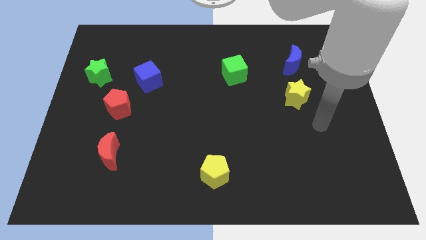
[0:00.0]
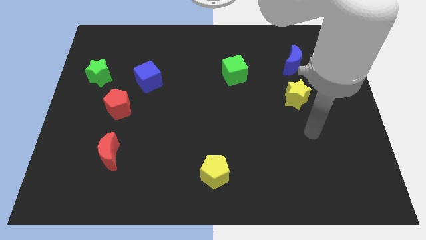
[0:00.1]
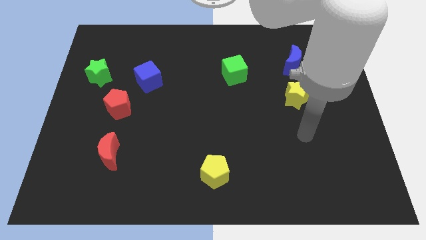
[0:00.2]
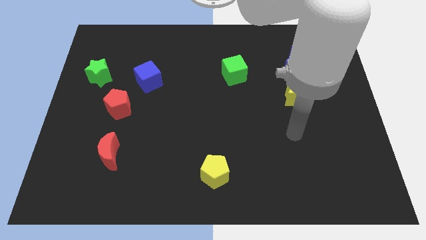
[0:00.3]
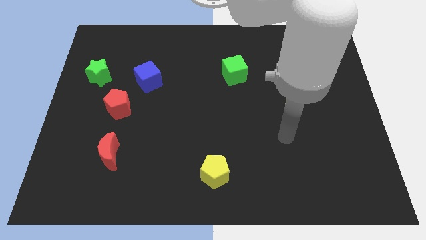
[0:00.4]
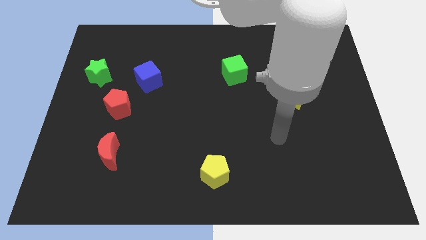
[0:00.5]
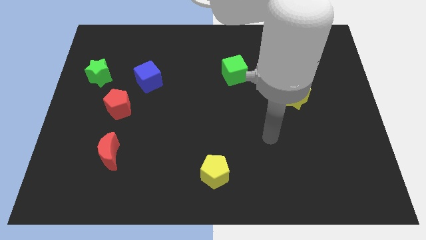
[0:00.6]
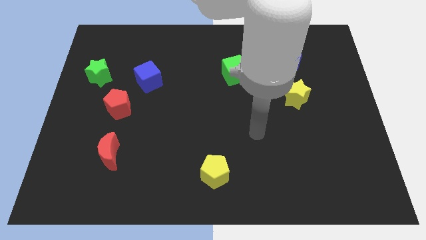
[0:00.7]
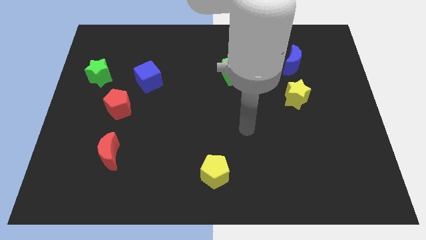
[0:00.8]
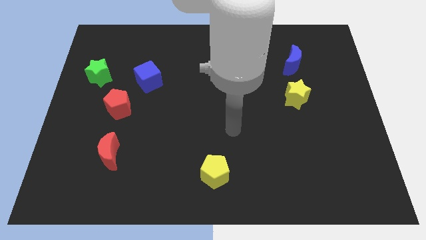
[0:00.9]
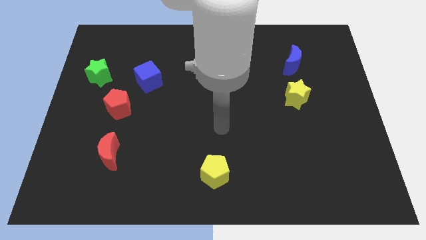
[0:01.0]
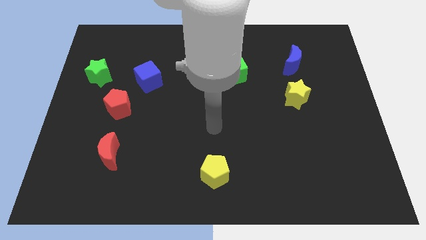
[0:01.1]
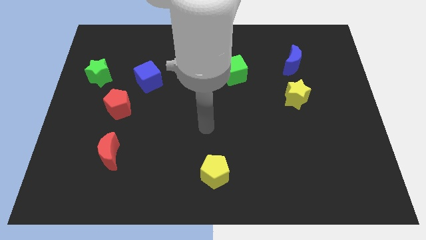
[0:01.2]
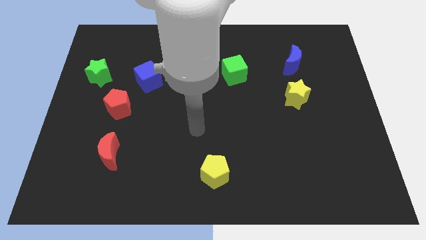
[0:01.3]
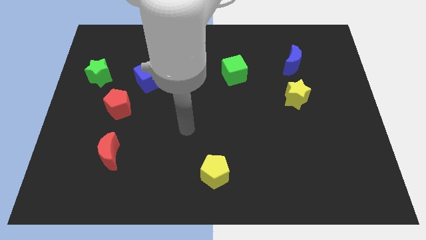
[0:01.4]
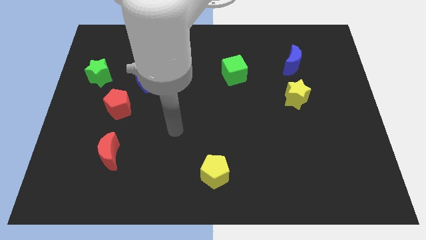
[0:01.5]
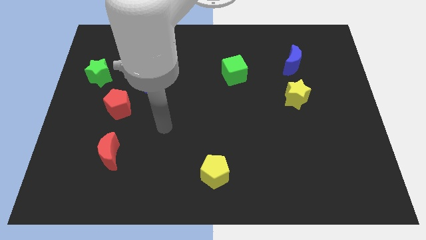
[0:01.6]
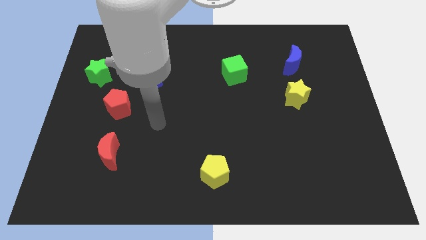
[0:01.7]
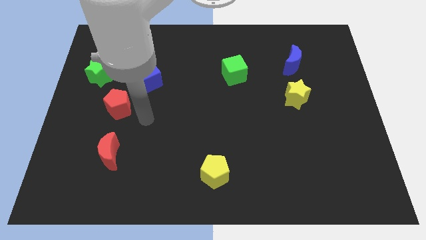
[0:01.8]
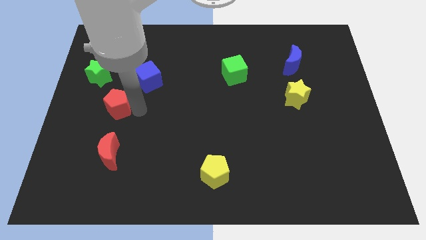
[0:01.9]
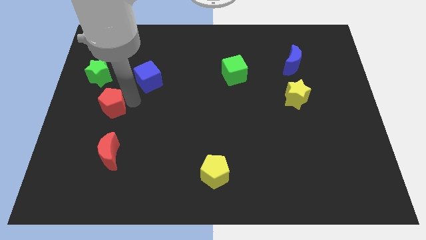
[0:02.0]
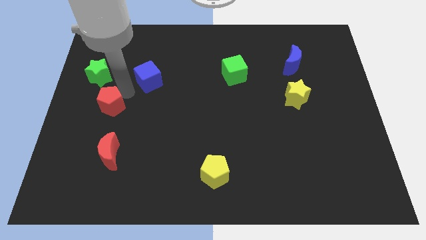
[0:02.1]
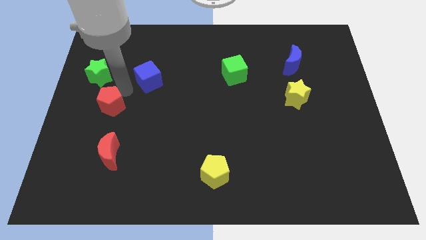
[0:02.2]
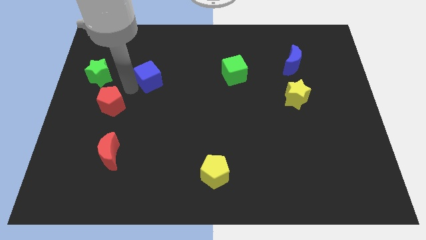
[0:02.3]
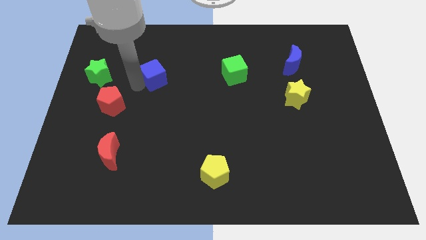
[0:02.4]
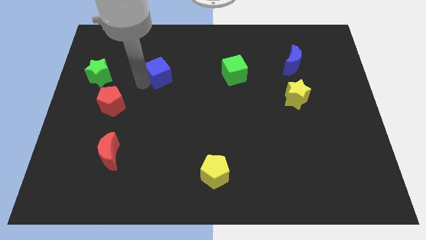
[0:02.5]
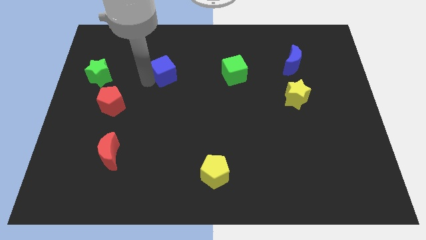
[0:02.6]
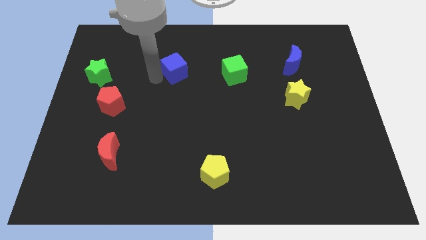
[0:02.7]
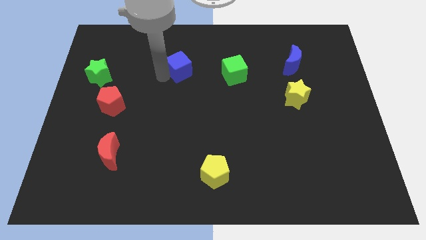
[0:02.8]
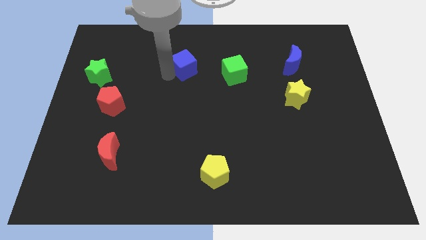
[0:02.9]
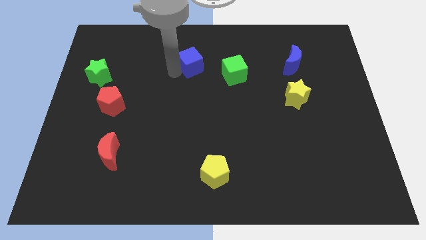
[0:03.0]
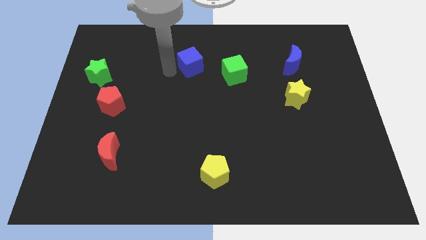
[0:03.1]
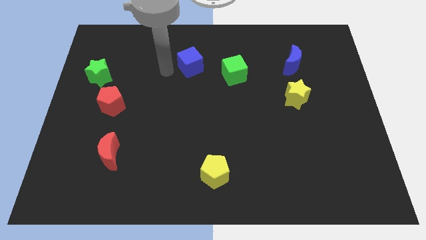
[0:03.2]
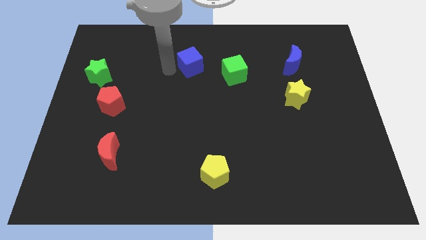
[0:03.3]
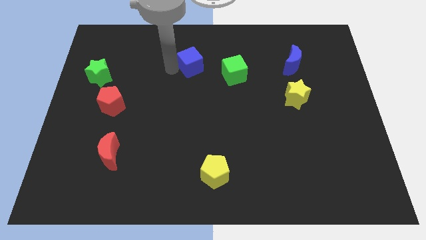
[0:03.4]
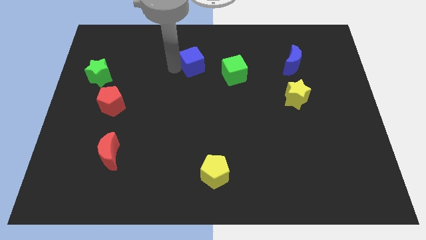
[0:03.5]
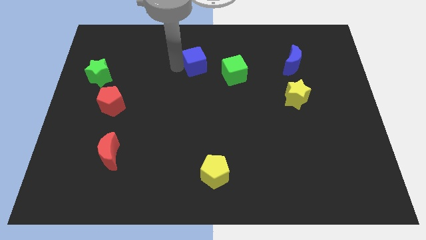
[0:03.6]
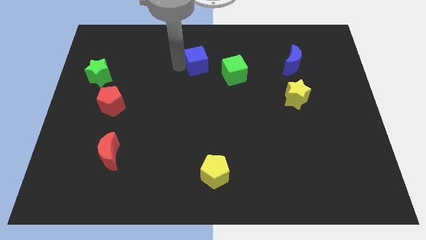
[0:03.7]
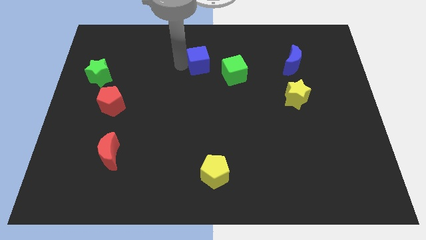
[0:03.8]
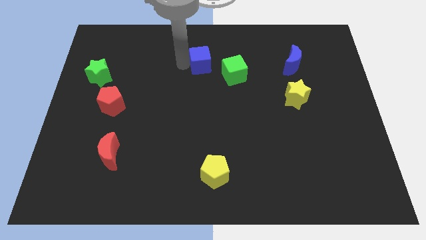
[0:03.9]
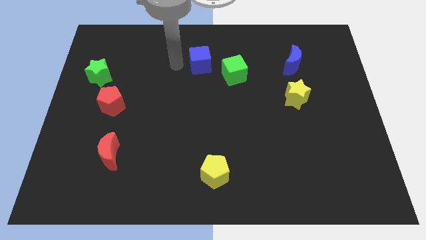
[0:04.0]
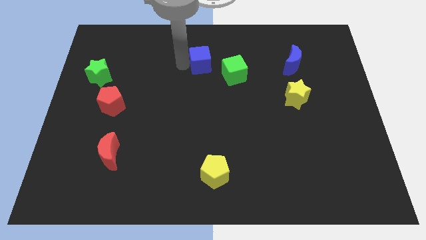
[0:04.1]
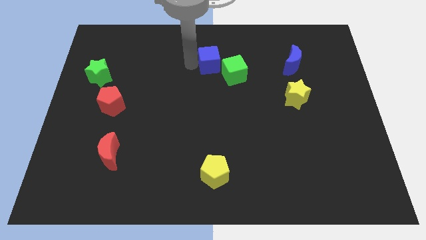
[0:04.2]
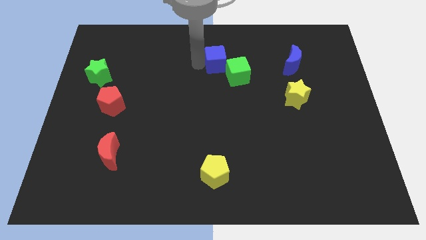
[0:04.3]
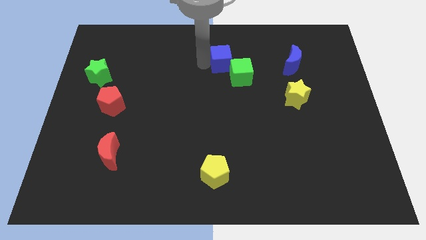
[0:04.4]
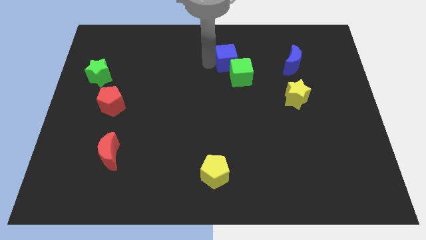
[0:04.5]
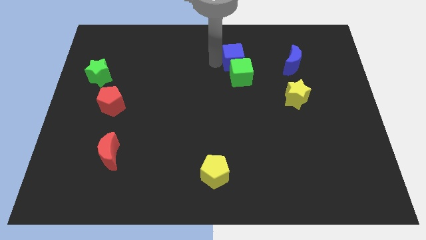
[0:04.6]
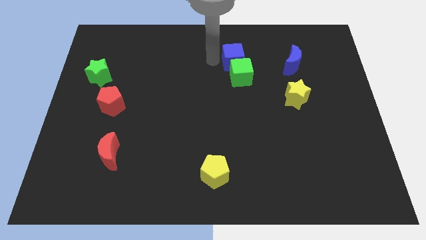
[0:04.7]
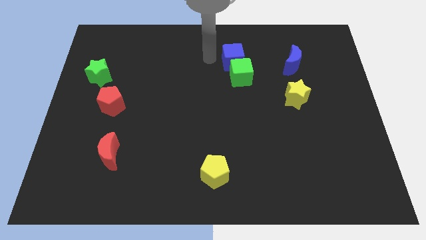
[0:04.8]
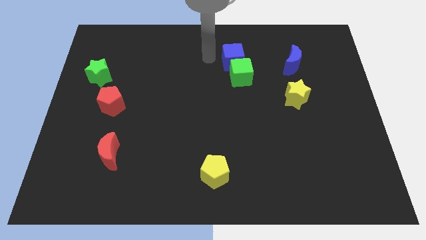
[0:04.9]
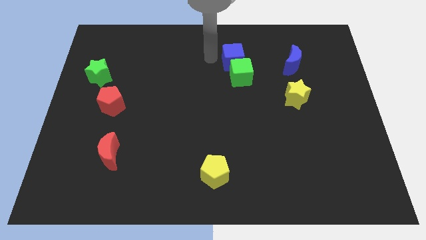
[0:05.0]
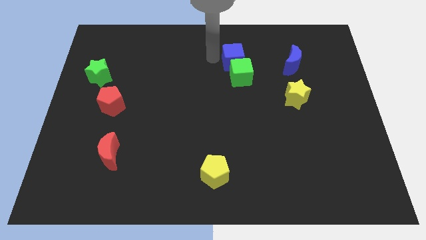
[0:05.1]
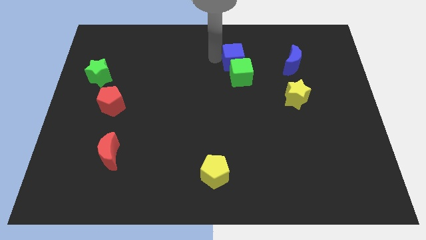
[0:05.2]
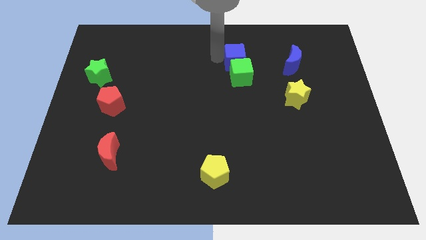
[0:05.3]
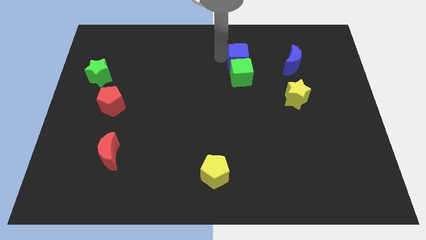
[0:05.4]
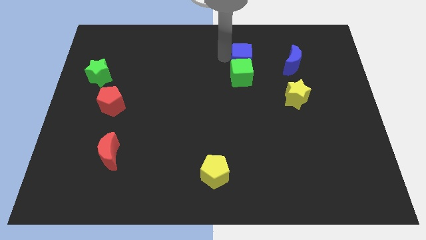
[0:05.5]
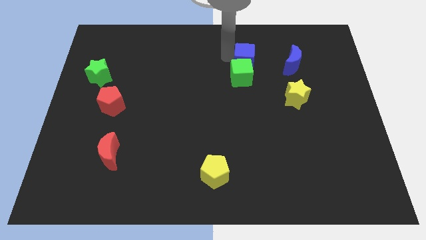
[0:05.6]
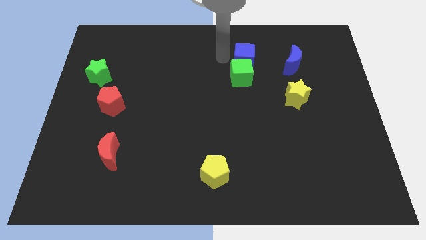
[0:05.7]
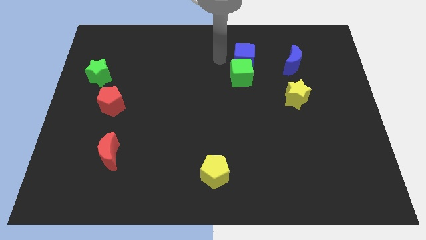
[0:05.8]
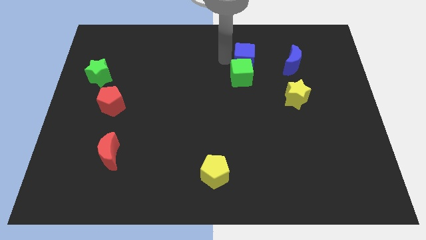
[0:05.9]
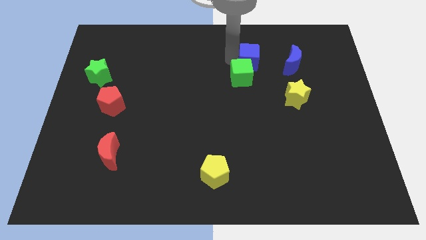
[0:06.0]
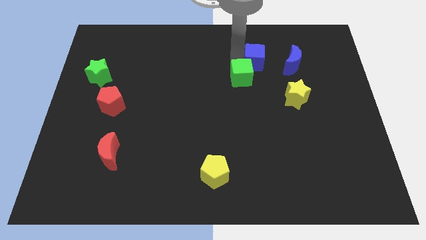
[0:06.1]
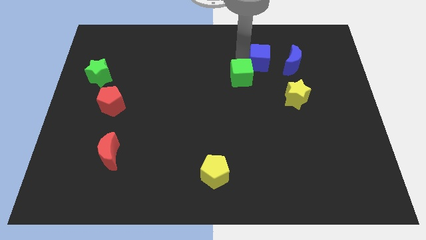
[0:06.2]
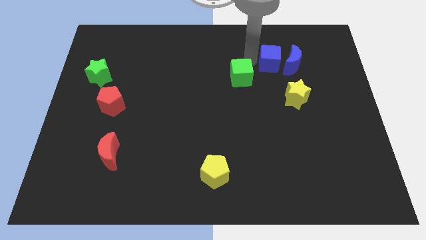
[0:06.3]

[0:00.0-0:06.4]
move the blue cube close to the blue moon

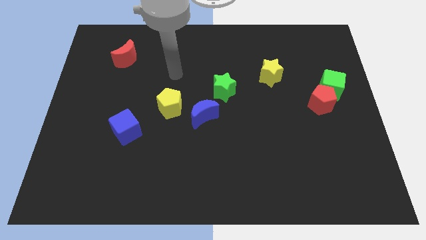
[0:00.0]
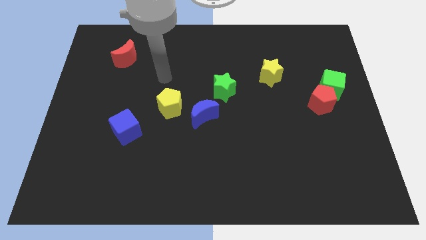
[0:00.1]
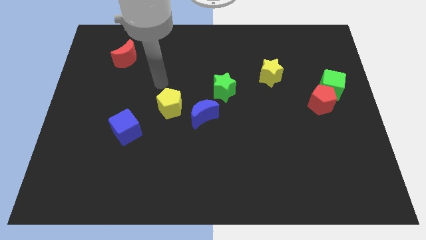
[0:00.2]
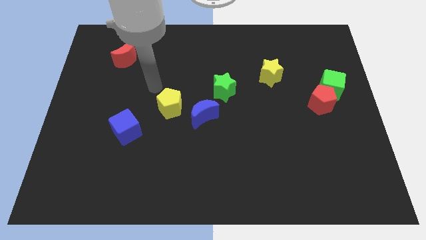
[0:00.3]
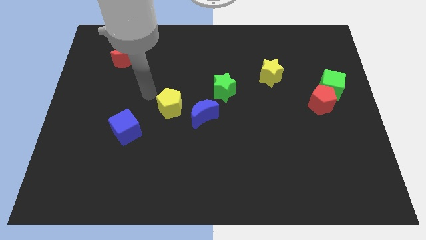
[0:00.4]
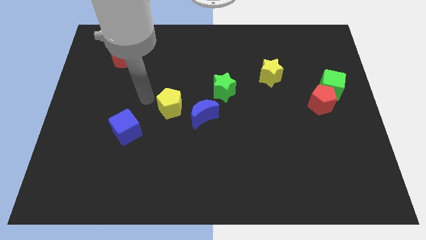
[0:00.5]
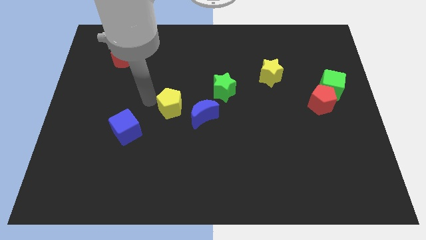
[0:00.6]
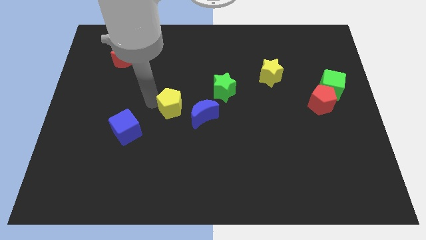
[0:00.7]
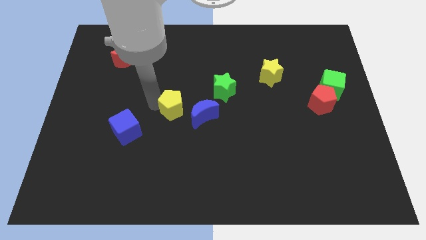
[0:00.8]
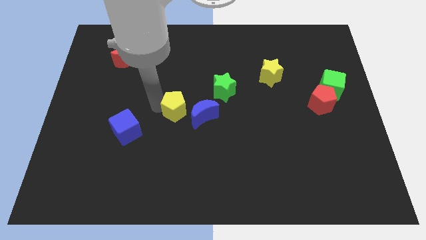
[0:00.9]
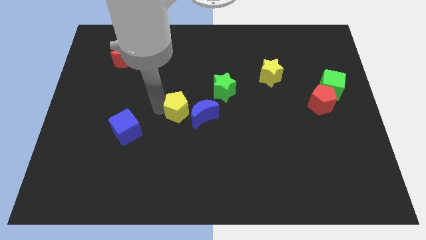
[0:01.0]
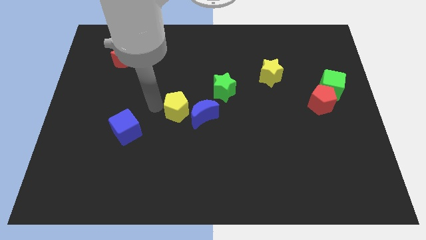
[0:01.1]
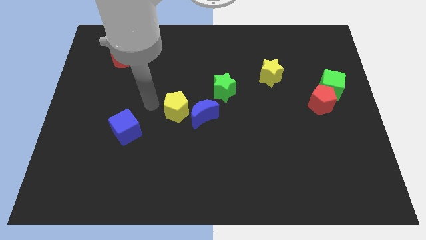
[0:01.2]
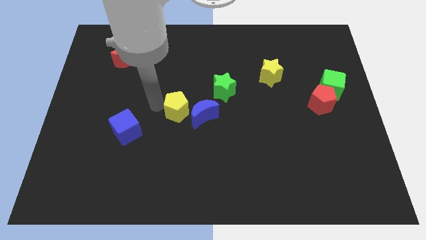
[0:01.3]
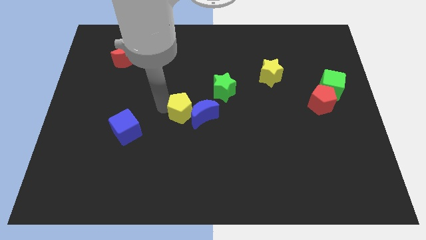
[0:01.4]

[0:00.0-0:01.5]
move the yellow pentagon next to the blue moon
